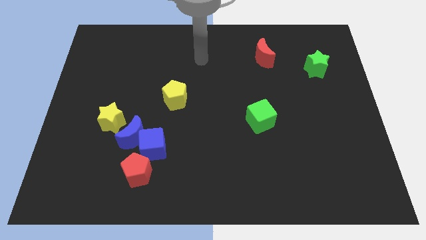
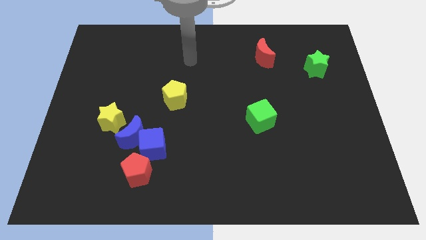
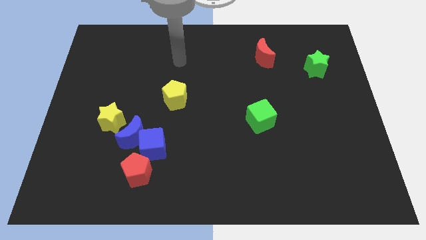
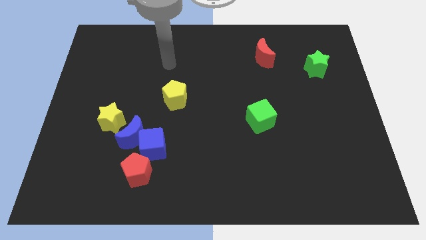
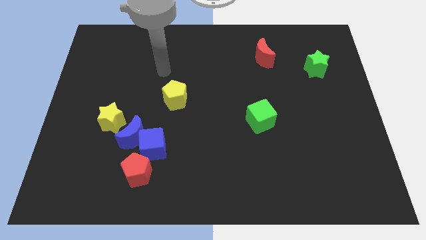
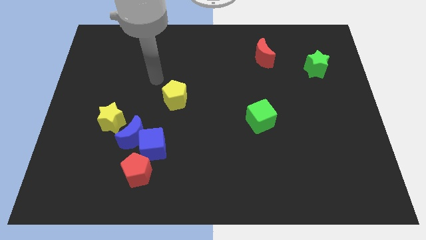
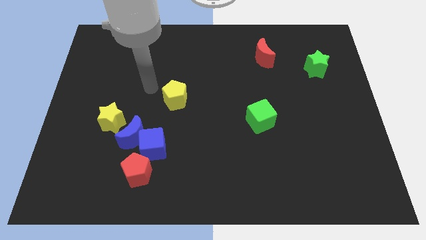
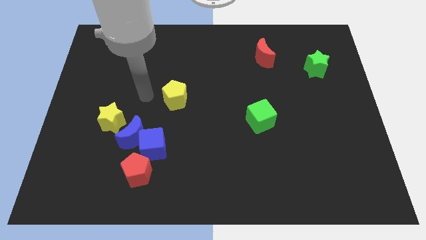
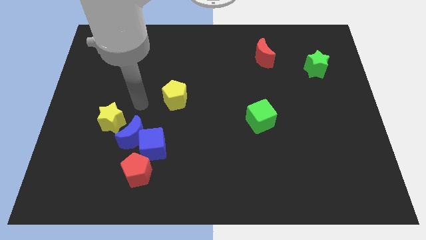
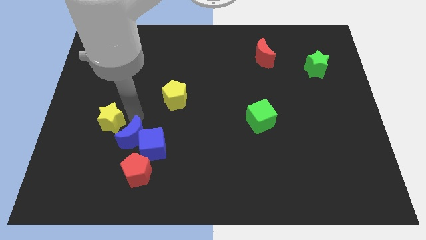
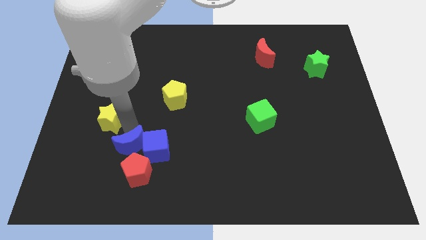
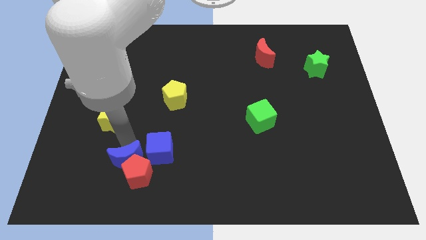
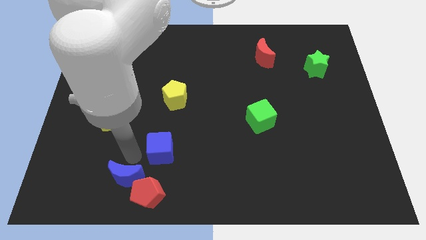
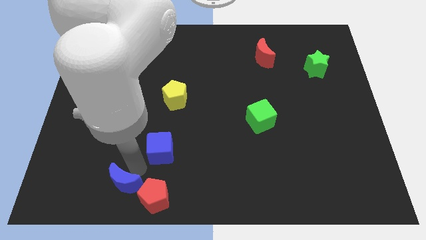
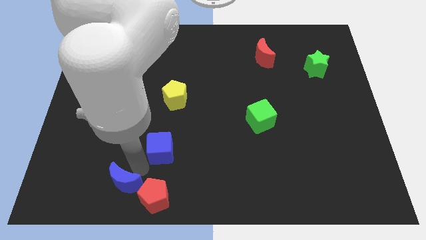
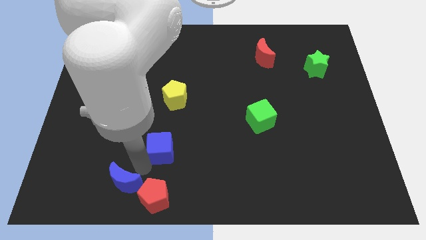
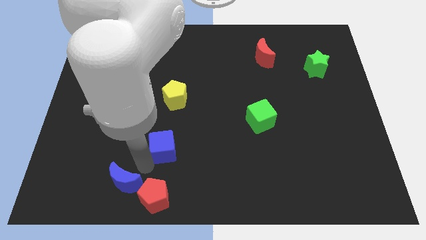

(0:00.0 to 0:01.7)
separate the blue cube from the blue moon and red pentagon

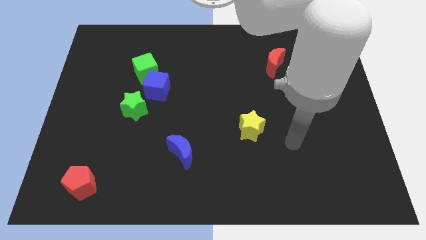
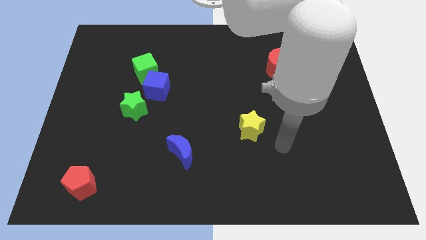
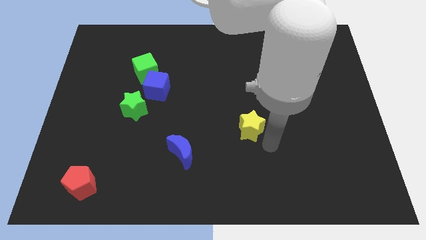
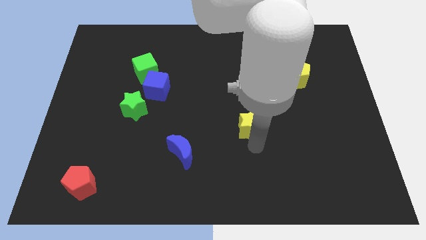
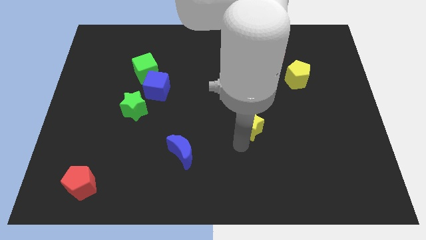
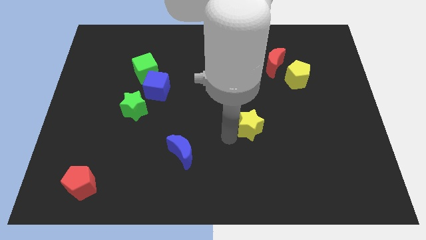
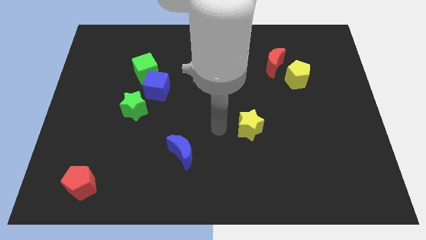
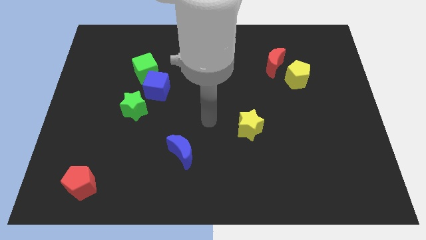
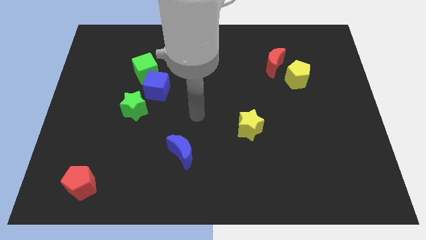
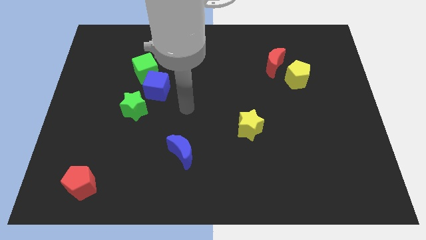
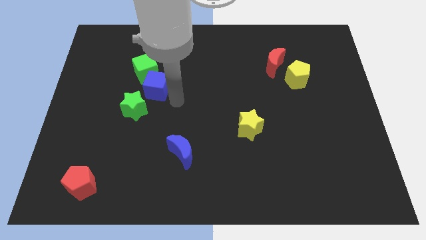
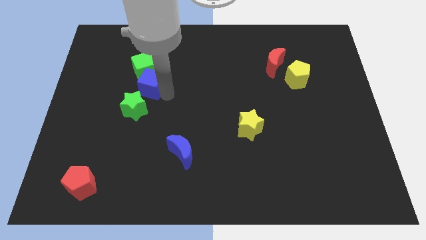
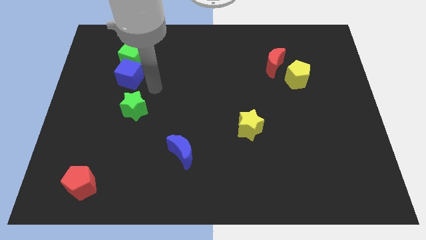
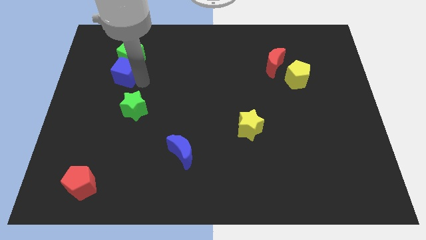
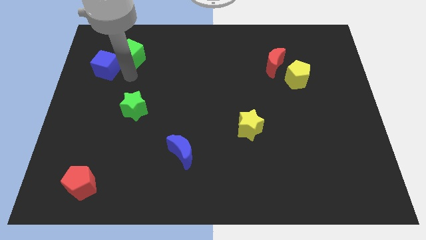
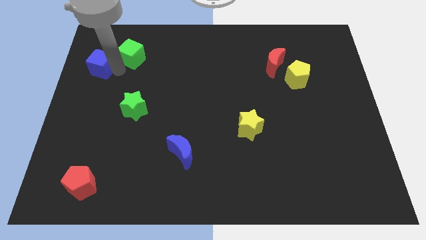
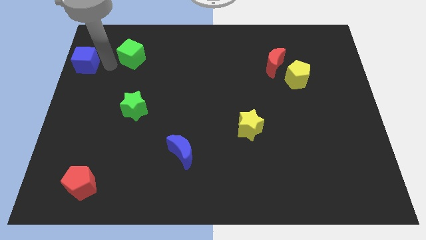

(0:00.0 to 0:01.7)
move the green cube away from the blue cube

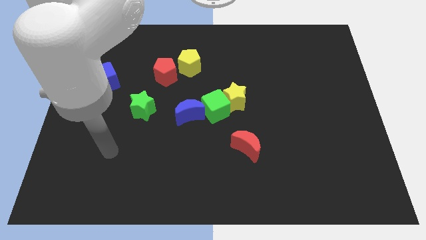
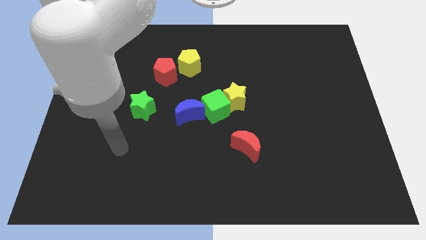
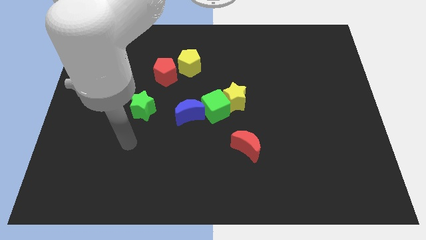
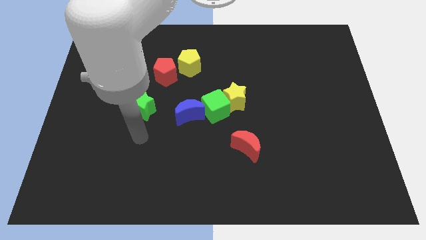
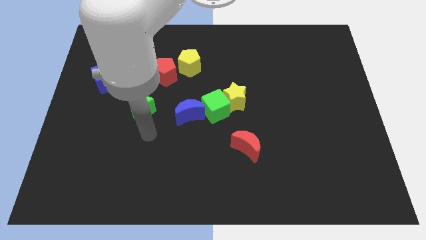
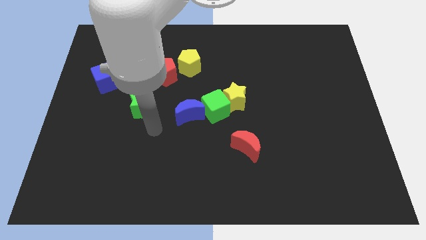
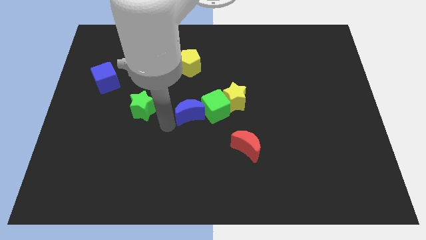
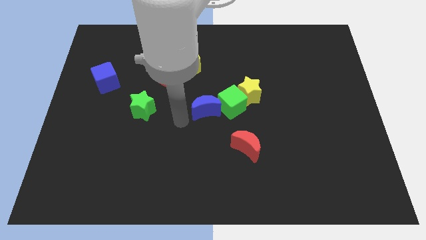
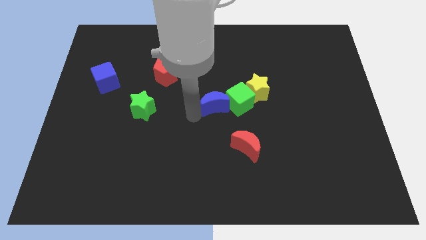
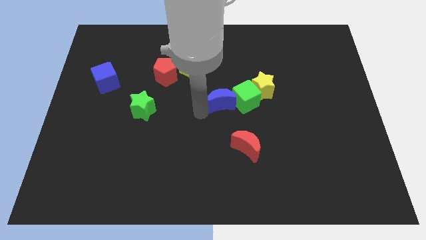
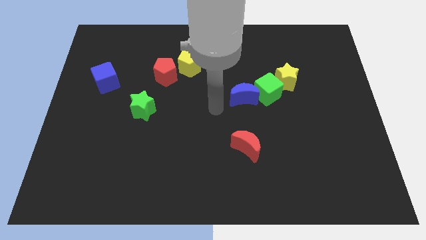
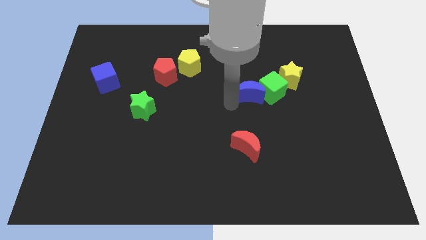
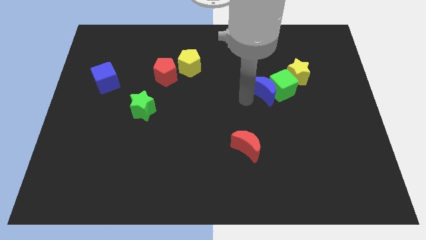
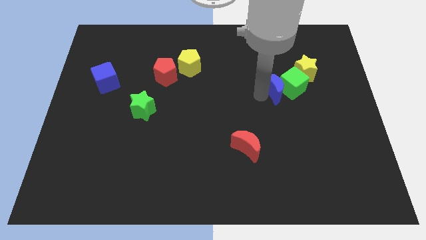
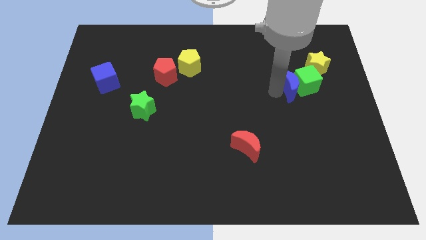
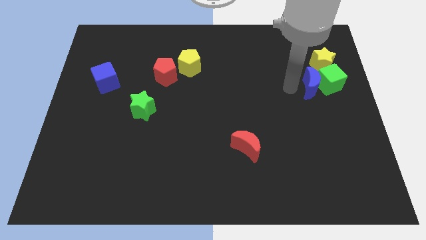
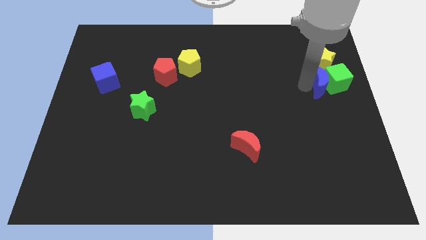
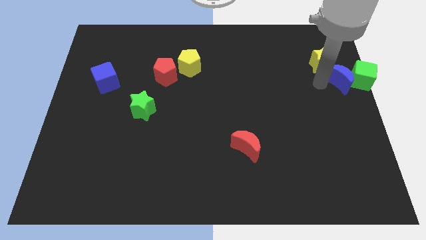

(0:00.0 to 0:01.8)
pull the yellow star apart from the green cube

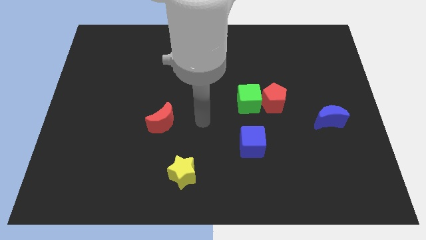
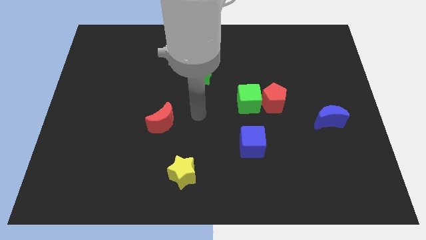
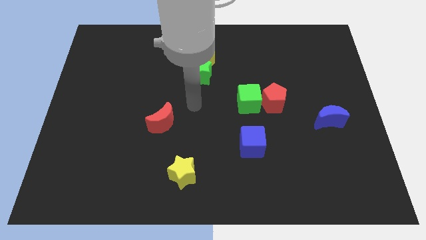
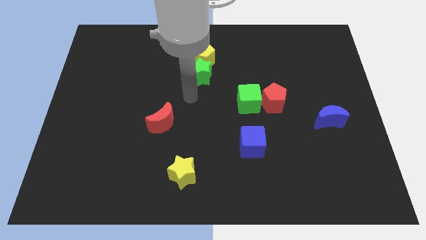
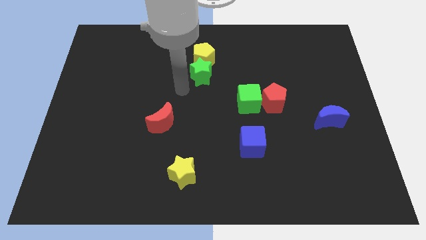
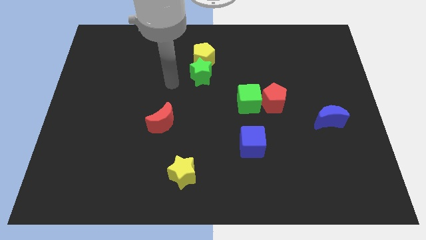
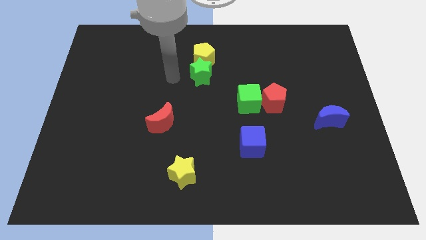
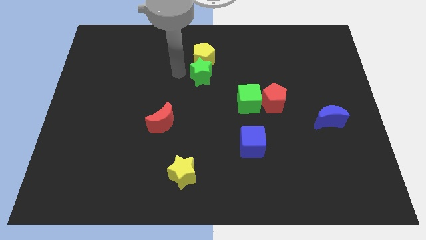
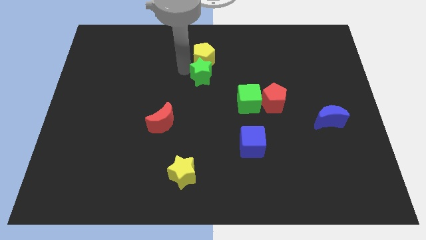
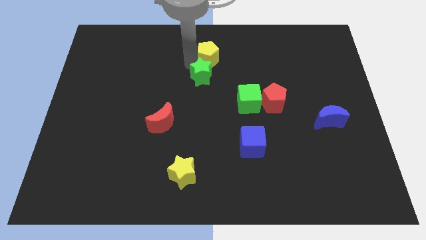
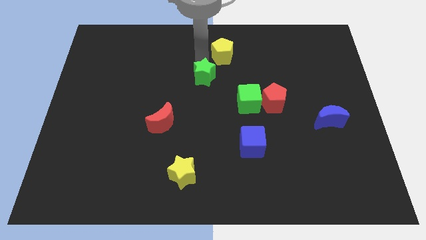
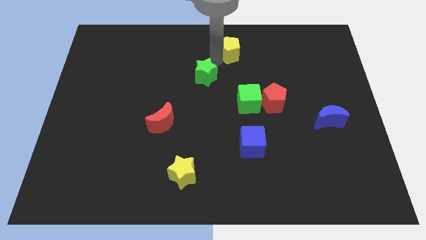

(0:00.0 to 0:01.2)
pull the green star apart from the yellow pentagon

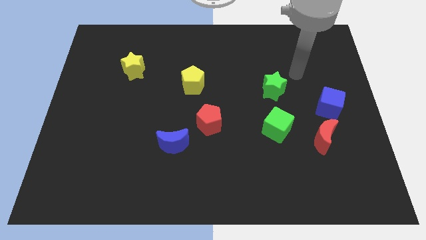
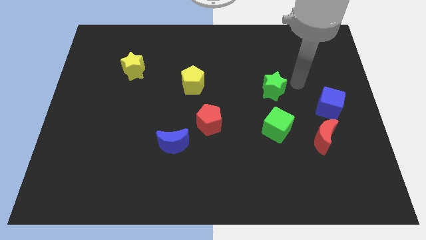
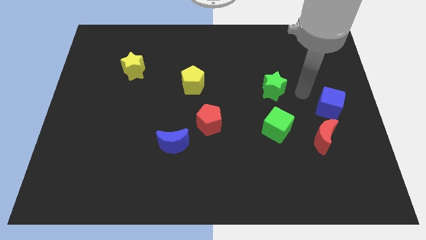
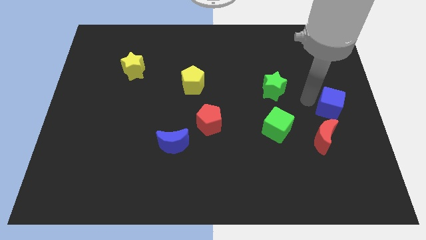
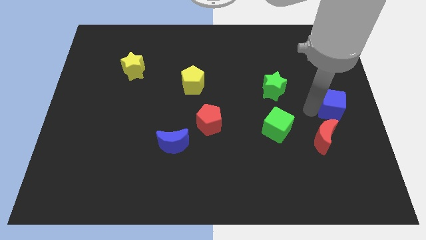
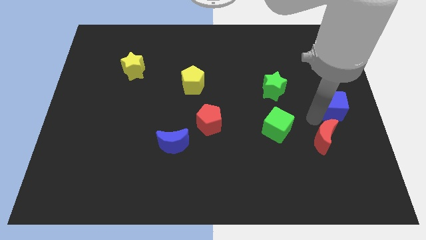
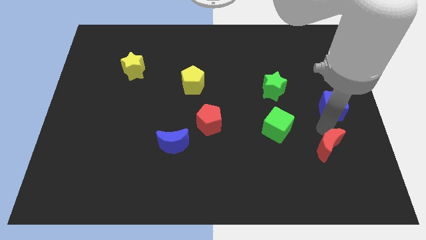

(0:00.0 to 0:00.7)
separate the blue cube from the red moon

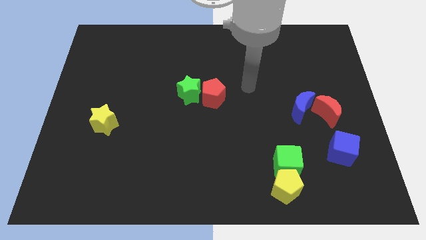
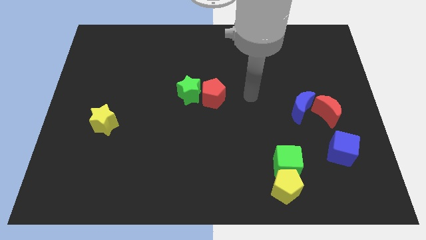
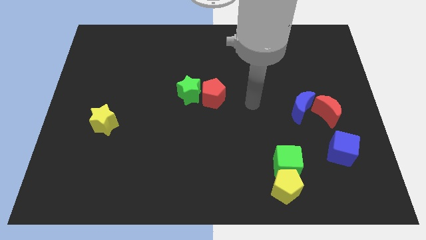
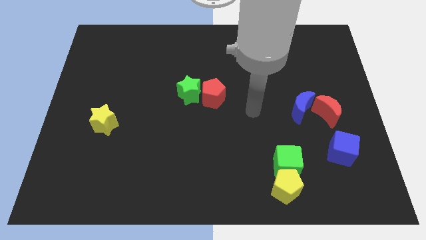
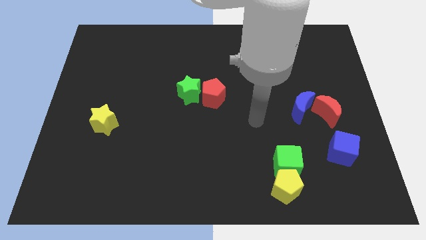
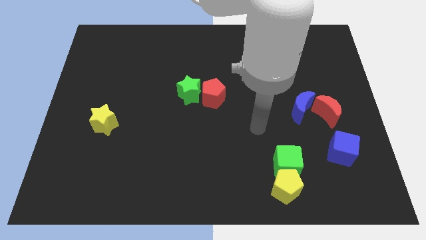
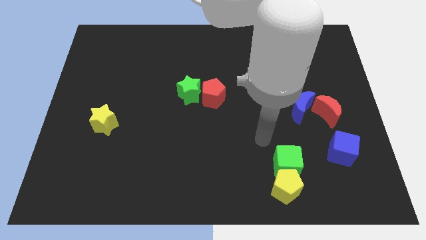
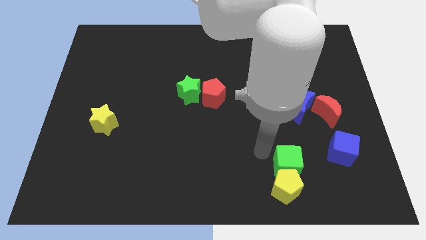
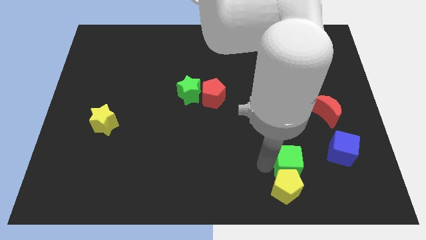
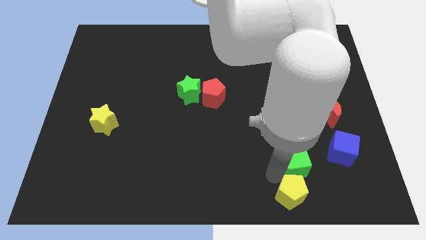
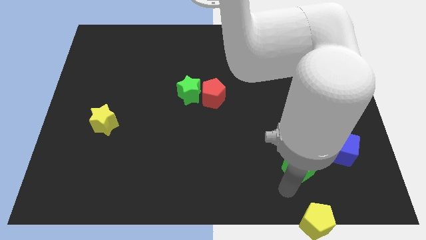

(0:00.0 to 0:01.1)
pull the green cube apart from the yellow pentagon

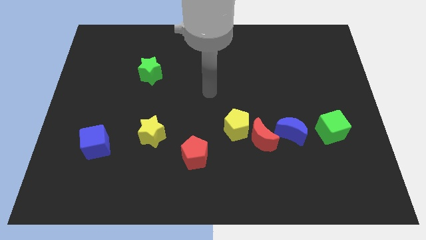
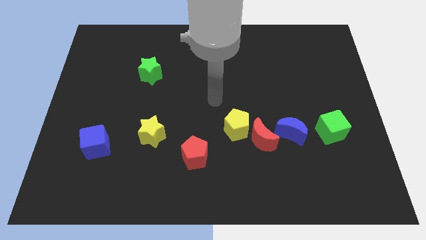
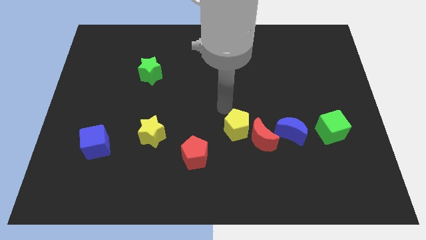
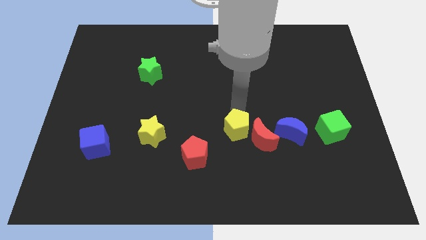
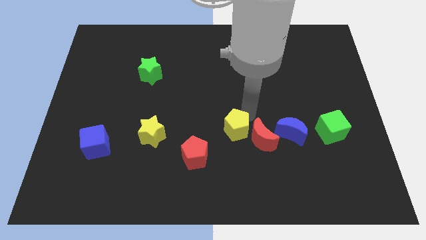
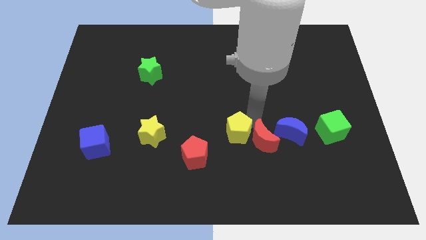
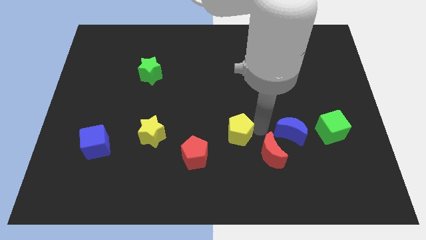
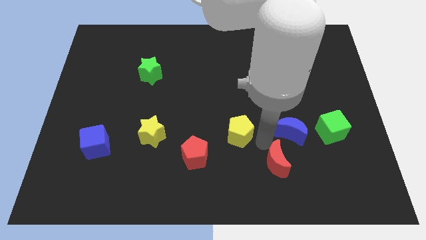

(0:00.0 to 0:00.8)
pull the yellow pentagon apart from the red moon

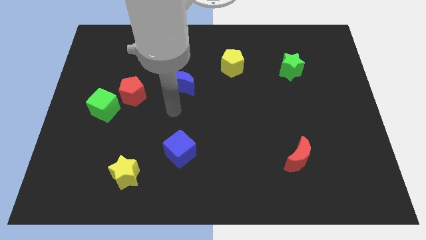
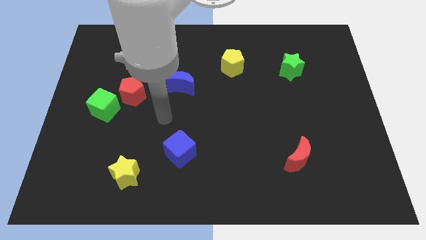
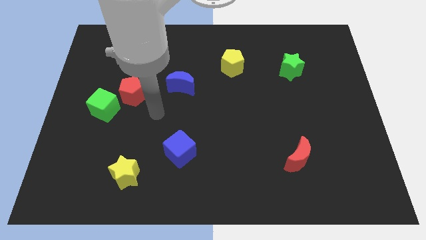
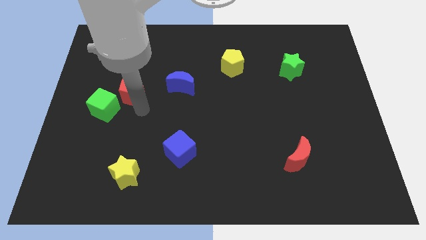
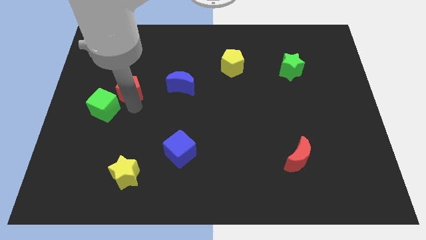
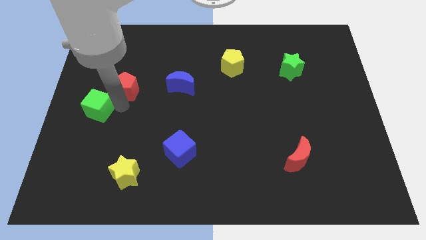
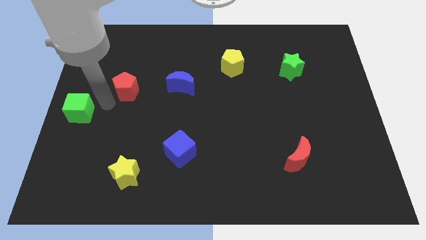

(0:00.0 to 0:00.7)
move the red pentagon away from the green cube
